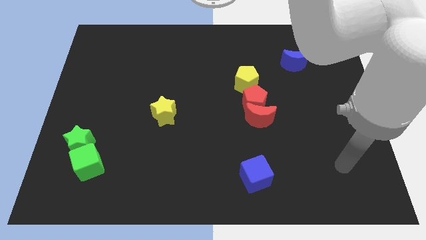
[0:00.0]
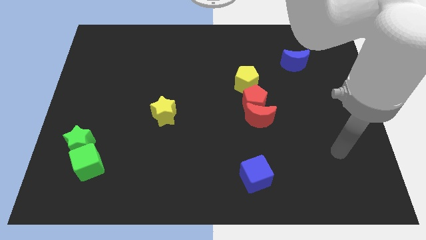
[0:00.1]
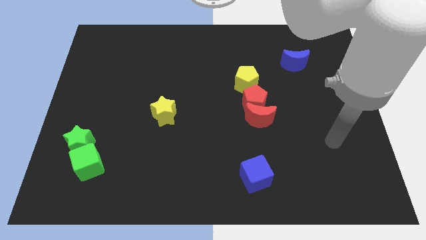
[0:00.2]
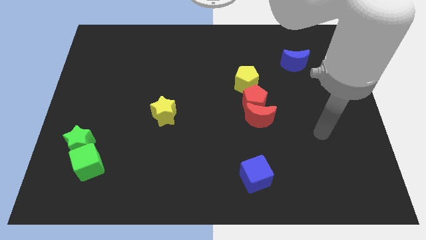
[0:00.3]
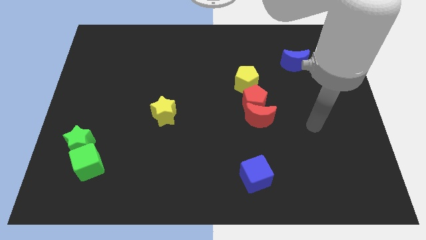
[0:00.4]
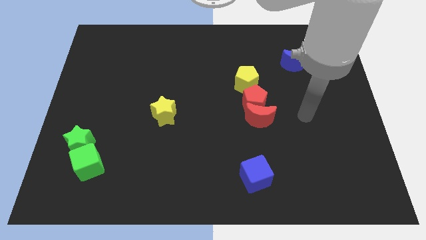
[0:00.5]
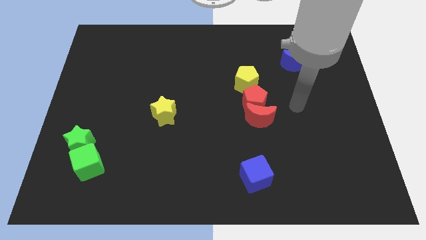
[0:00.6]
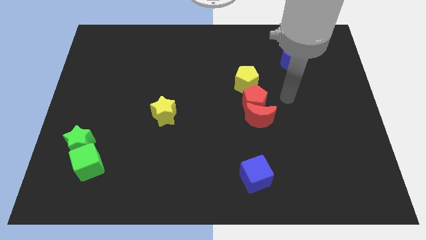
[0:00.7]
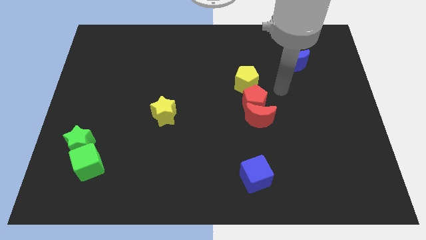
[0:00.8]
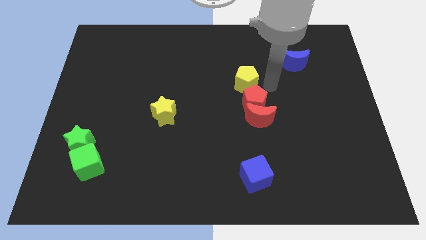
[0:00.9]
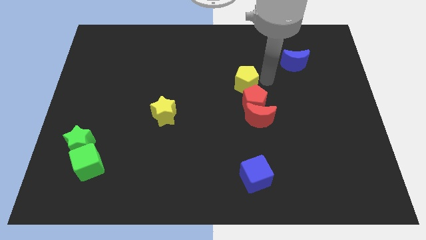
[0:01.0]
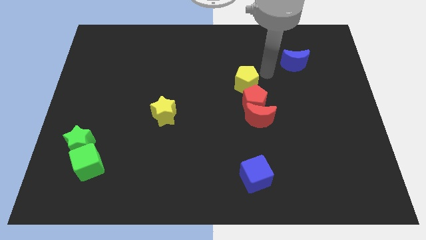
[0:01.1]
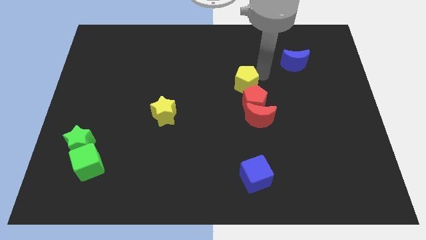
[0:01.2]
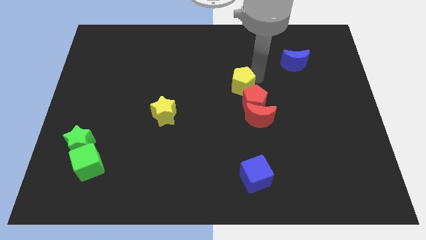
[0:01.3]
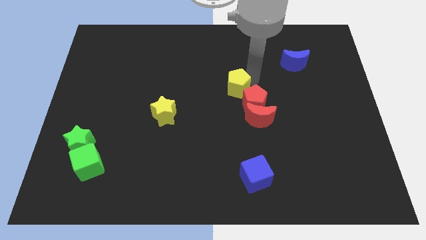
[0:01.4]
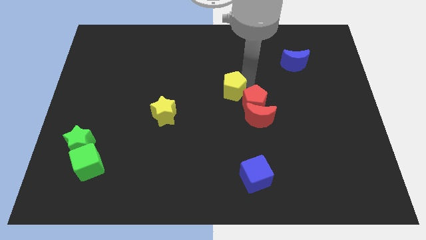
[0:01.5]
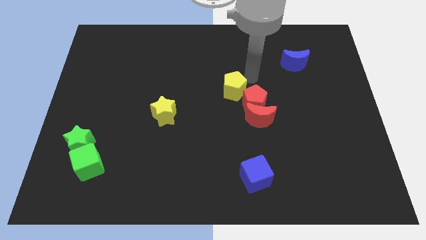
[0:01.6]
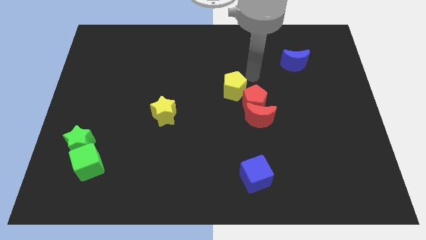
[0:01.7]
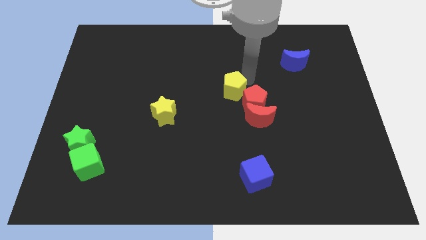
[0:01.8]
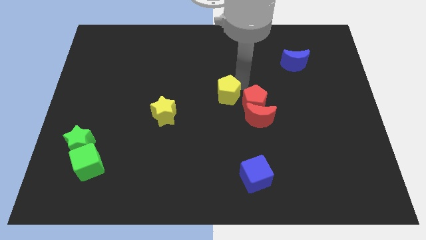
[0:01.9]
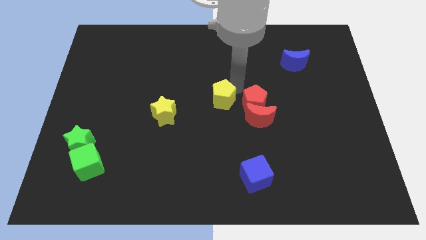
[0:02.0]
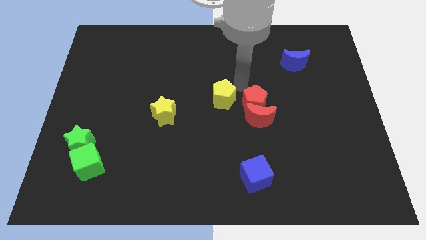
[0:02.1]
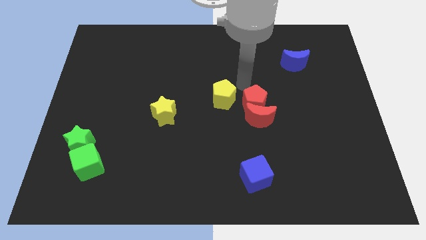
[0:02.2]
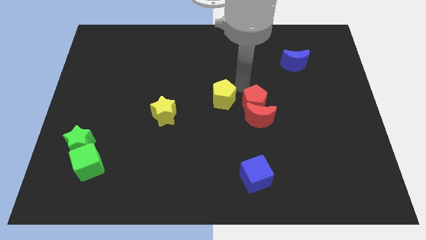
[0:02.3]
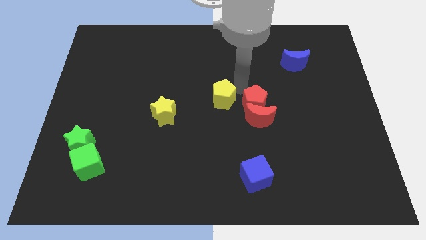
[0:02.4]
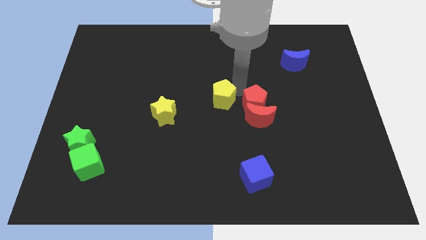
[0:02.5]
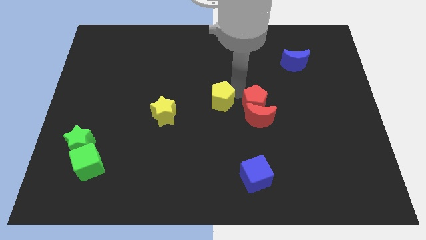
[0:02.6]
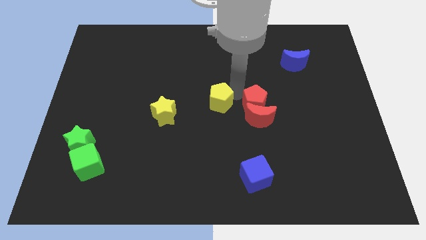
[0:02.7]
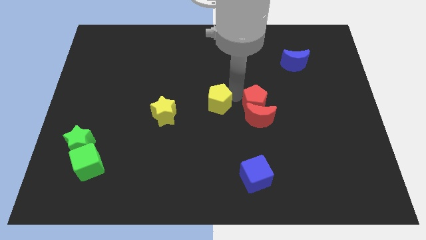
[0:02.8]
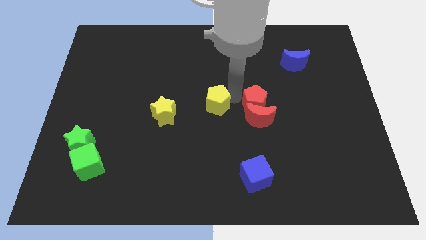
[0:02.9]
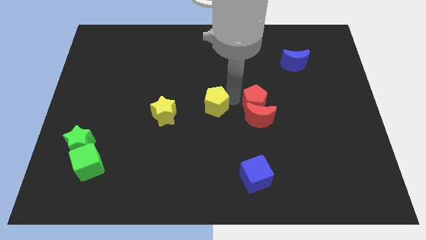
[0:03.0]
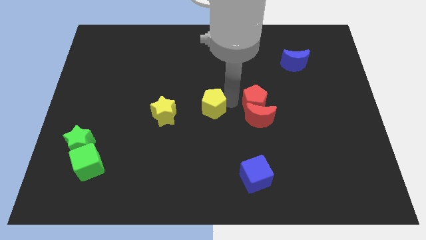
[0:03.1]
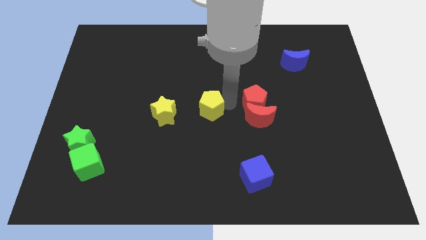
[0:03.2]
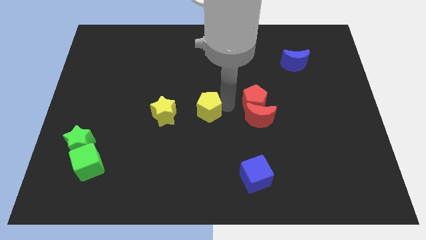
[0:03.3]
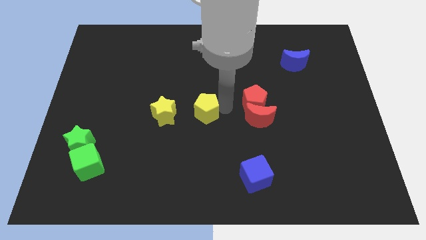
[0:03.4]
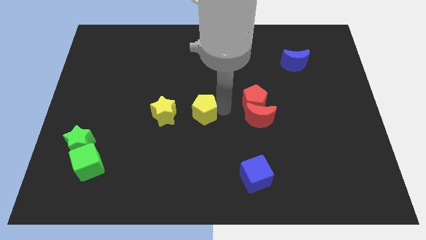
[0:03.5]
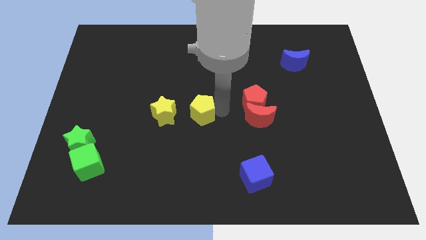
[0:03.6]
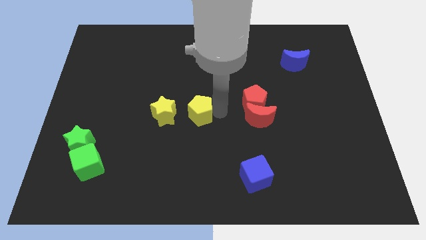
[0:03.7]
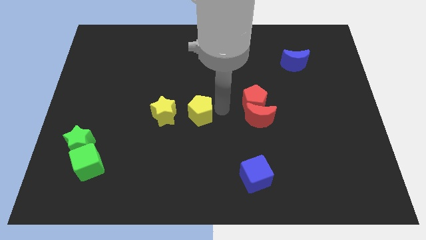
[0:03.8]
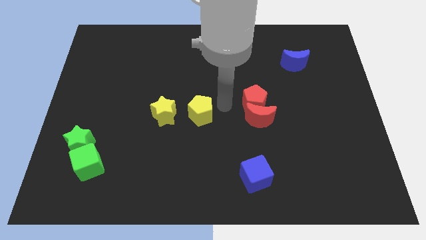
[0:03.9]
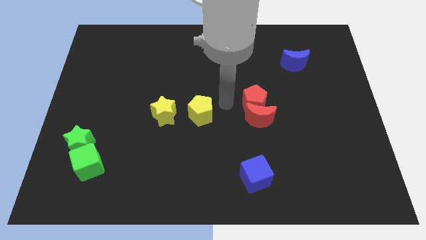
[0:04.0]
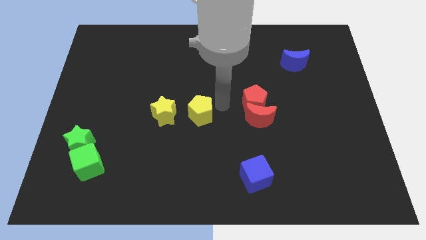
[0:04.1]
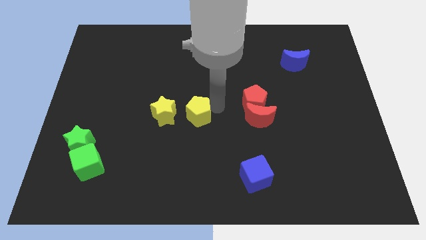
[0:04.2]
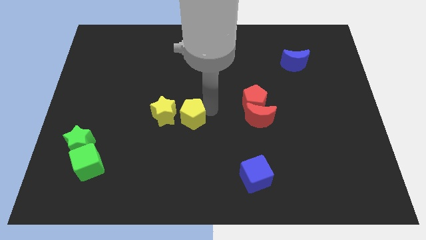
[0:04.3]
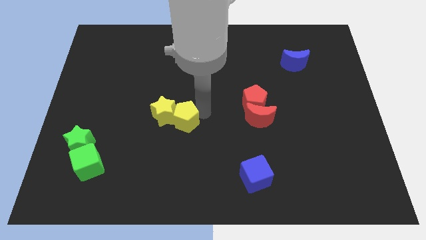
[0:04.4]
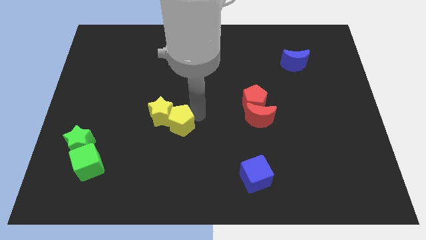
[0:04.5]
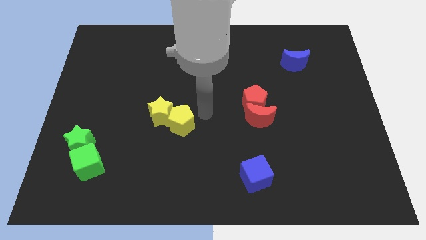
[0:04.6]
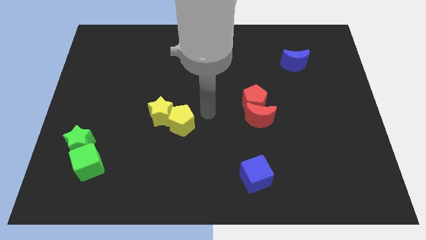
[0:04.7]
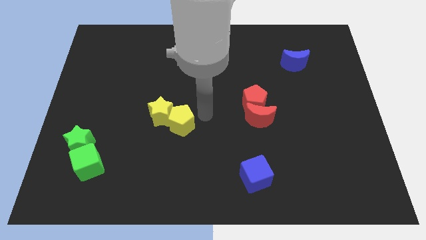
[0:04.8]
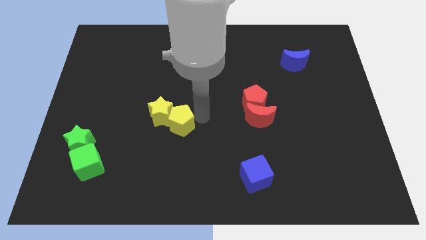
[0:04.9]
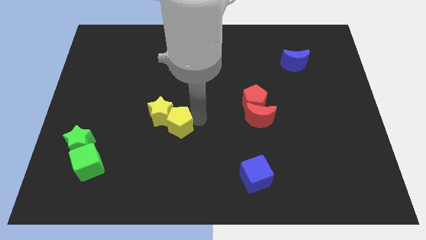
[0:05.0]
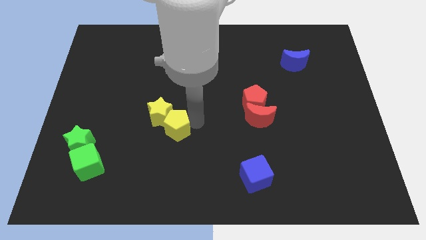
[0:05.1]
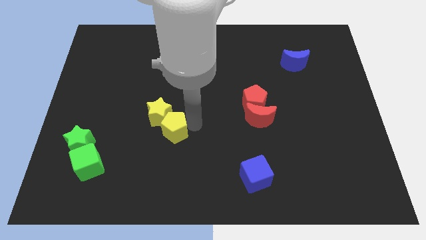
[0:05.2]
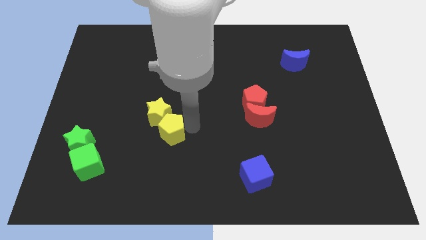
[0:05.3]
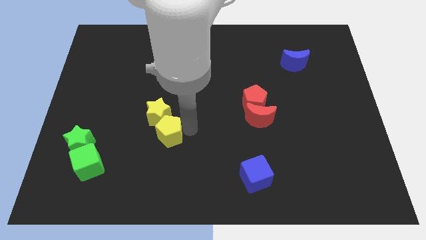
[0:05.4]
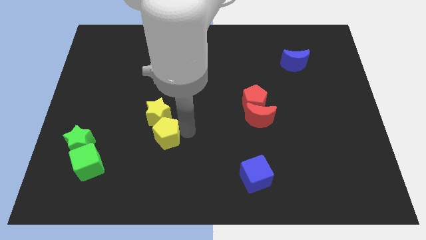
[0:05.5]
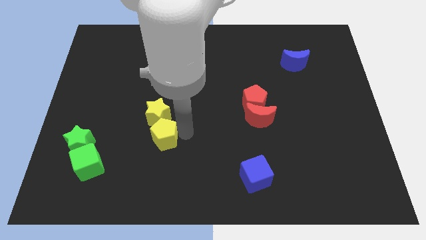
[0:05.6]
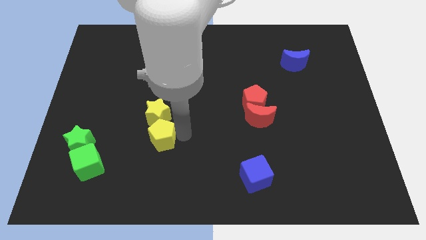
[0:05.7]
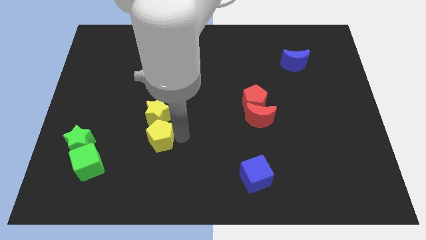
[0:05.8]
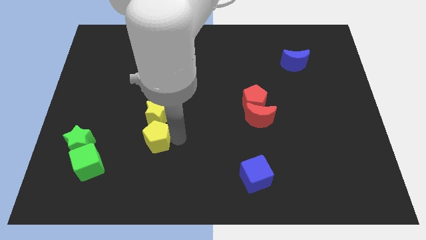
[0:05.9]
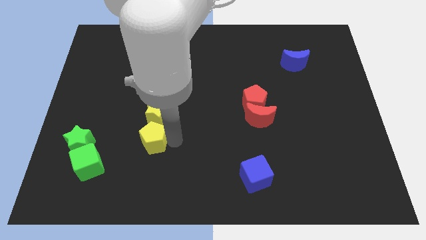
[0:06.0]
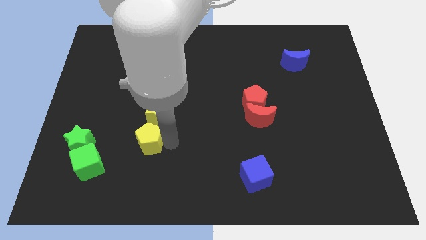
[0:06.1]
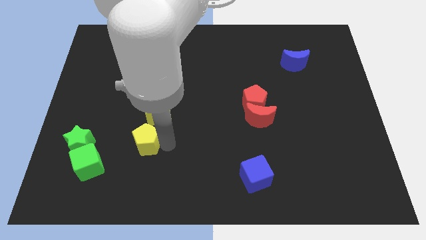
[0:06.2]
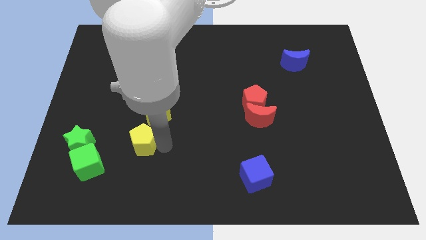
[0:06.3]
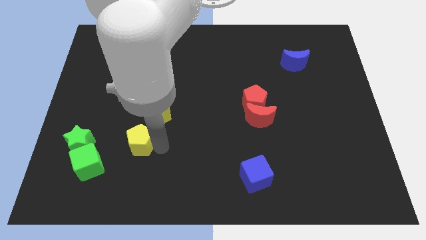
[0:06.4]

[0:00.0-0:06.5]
slide the yellow pentagon diagonally up and to the right of the green cube

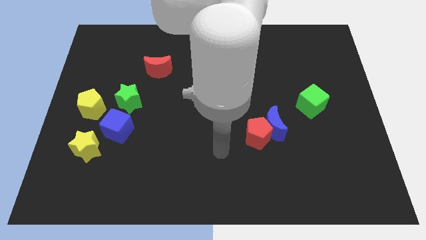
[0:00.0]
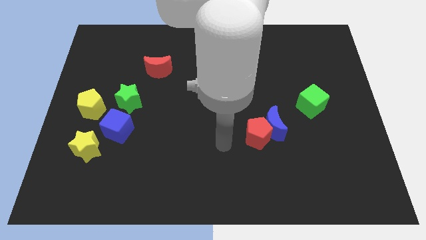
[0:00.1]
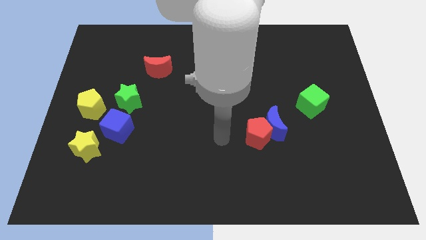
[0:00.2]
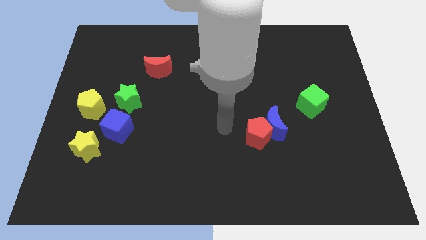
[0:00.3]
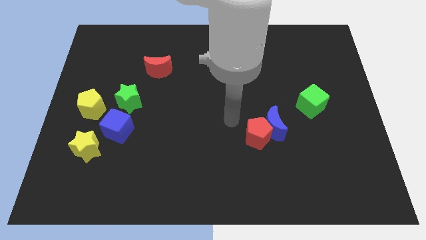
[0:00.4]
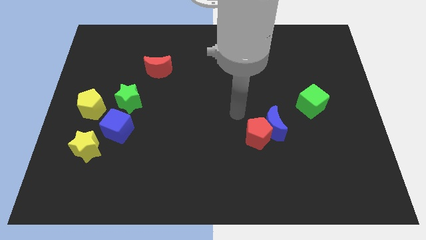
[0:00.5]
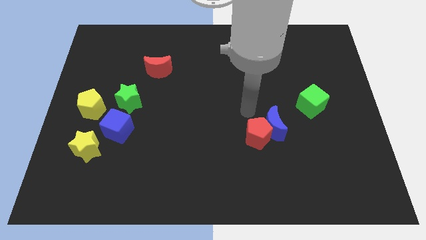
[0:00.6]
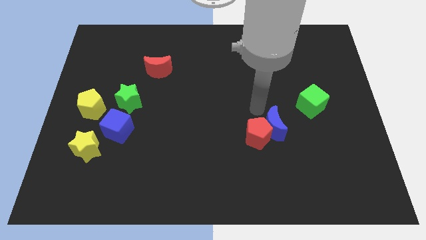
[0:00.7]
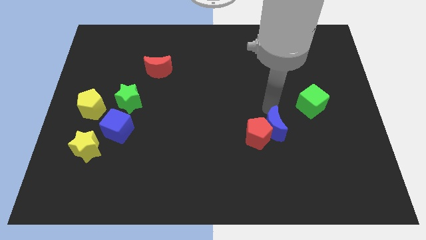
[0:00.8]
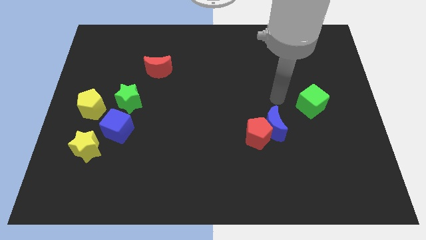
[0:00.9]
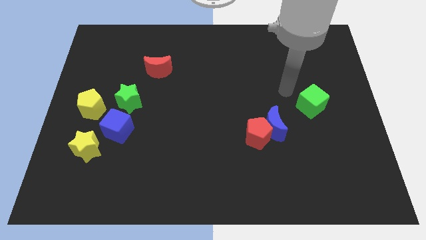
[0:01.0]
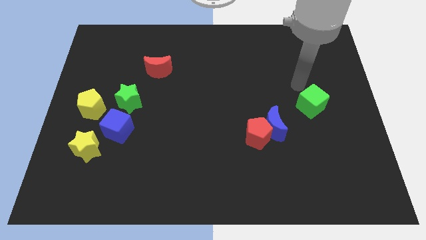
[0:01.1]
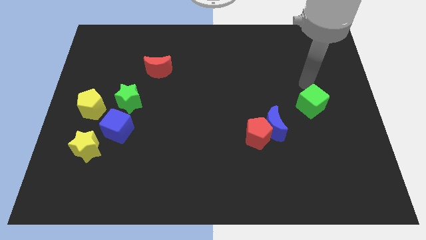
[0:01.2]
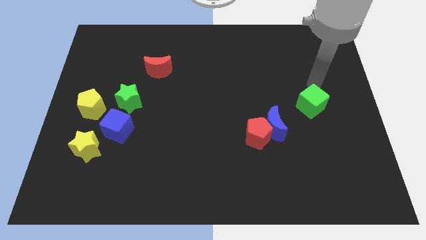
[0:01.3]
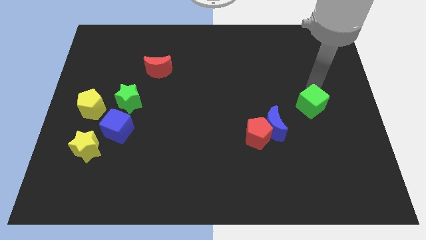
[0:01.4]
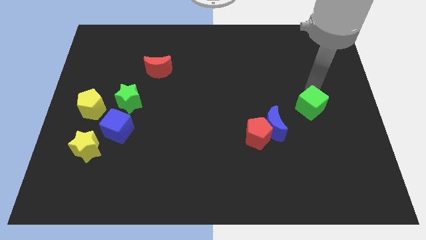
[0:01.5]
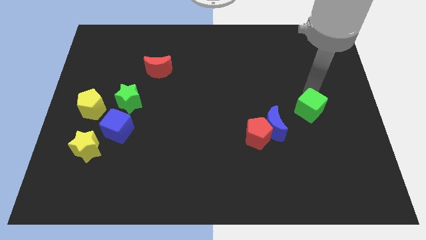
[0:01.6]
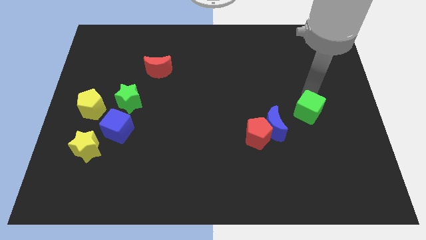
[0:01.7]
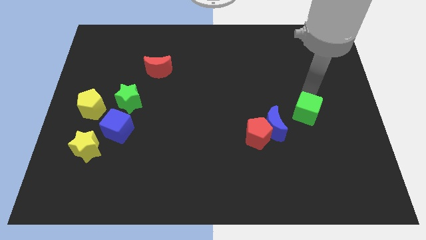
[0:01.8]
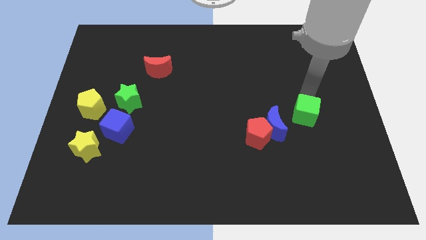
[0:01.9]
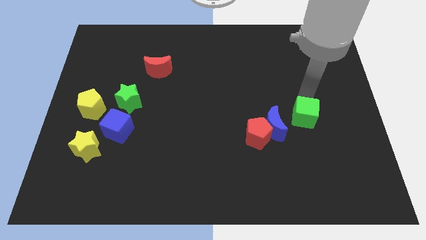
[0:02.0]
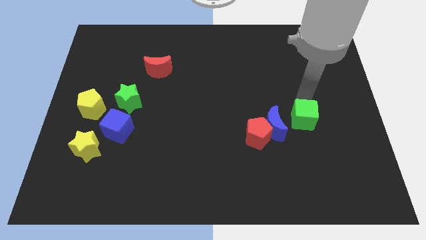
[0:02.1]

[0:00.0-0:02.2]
push the green cube to the right side of the red pentagon
